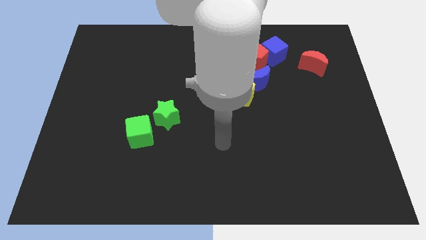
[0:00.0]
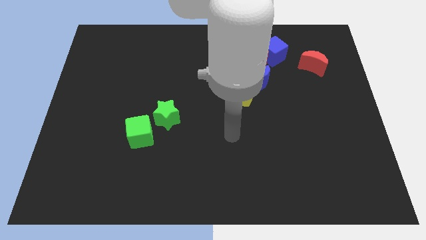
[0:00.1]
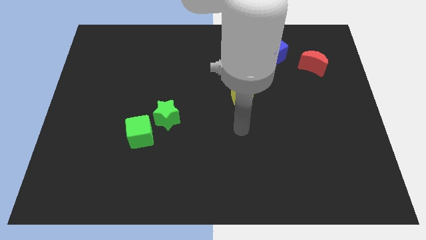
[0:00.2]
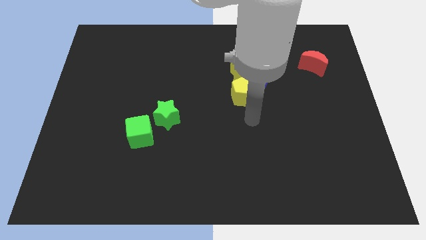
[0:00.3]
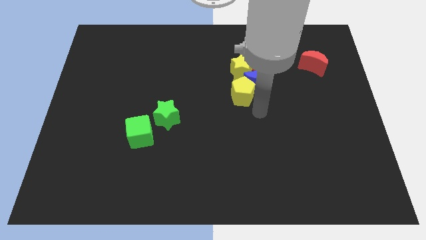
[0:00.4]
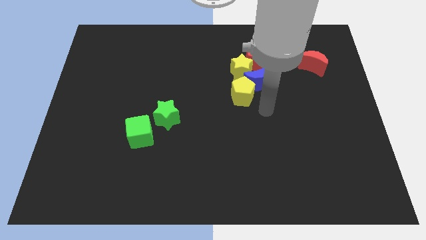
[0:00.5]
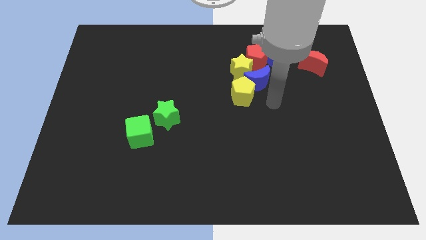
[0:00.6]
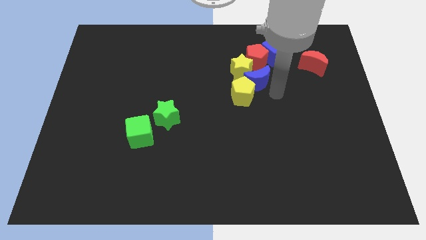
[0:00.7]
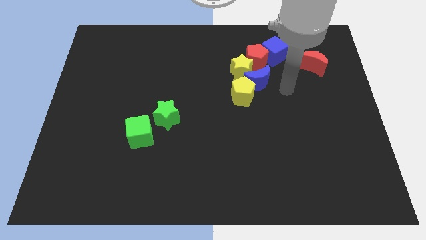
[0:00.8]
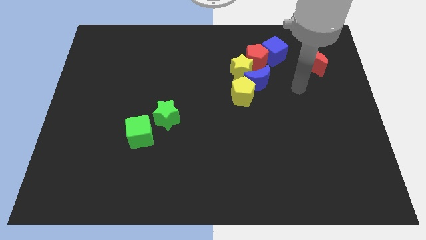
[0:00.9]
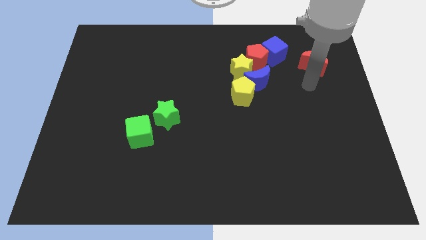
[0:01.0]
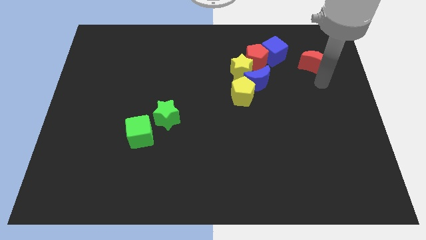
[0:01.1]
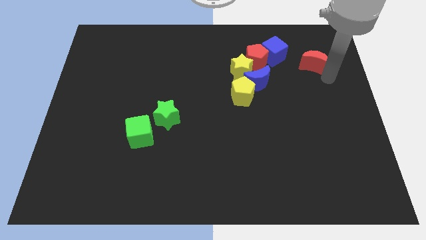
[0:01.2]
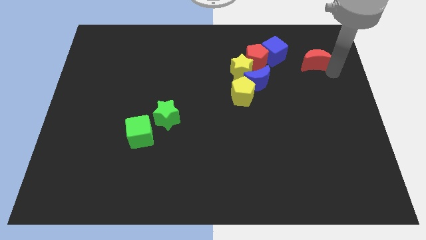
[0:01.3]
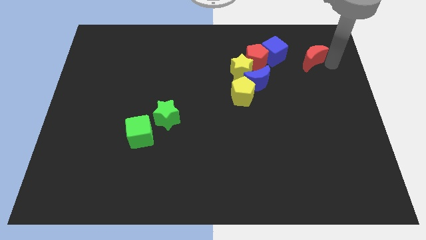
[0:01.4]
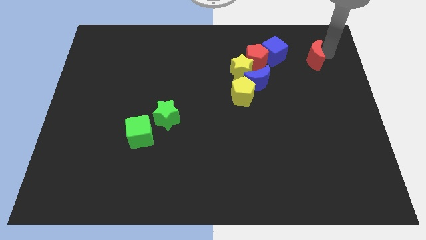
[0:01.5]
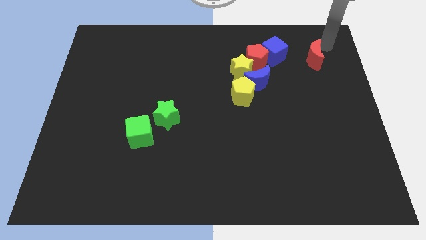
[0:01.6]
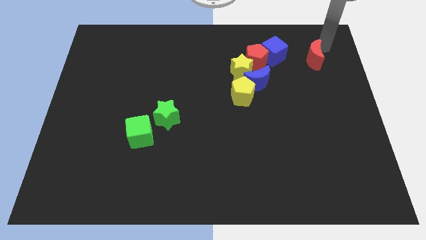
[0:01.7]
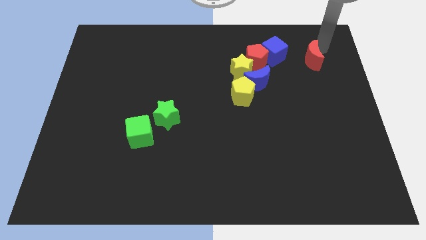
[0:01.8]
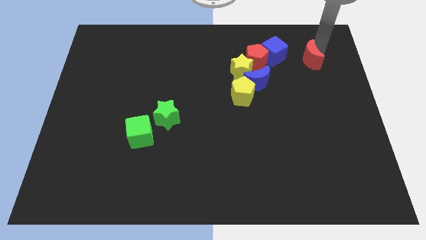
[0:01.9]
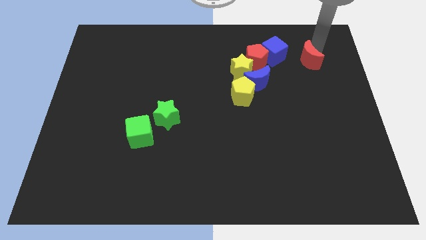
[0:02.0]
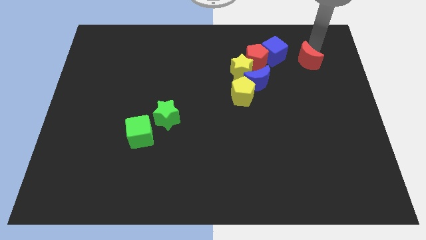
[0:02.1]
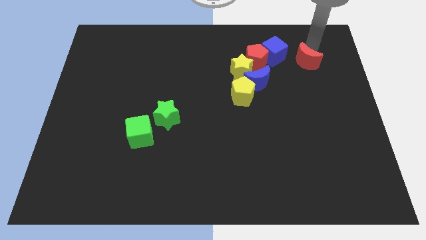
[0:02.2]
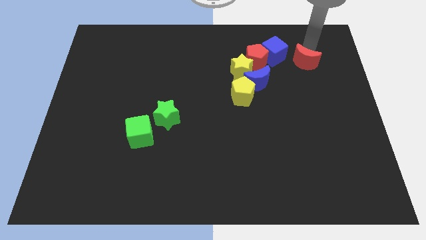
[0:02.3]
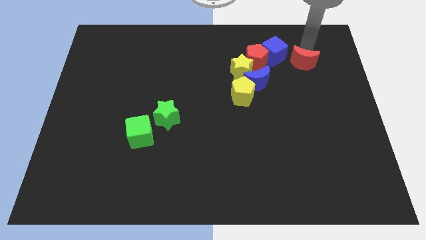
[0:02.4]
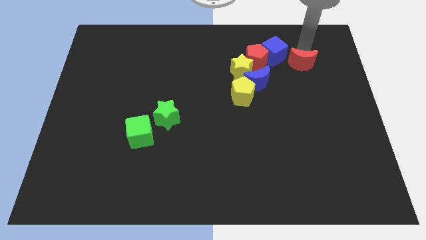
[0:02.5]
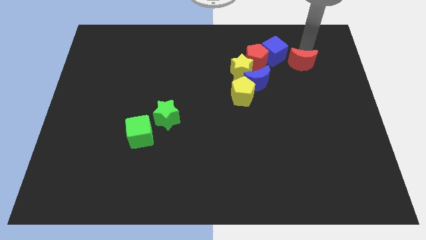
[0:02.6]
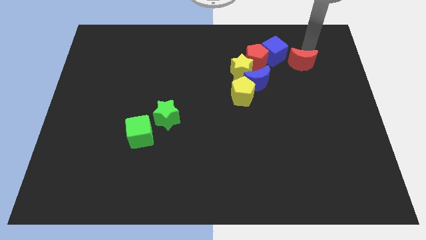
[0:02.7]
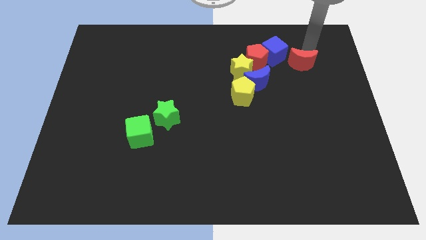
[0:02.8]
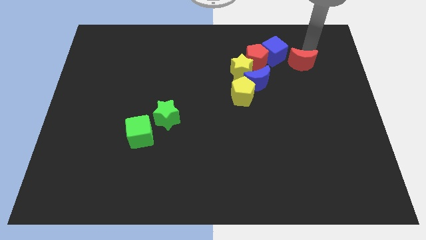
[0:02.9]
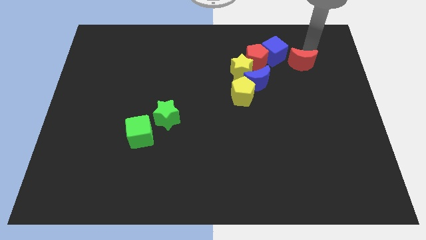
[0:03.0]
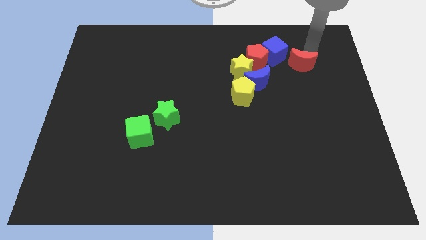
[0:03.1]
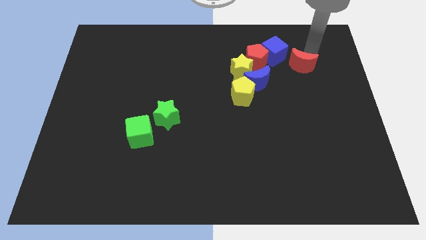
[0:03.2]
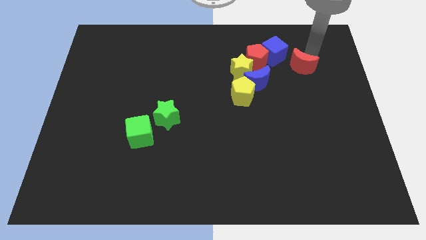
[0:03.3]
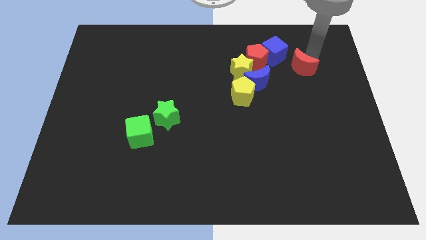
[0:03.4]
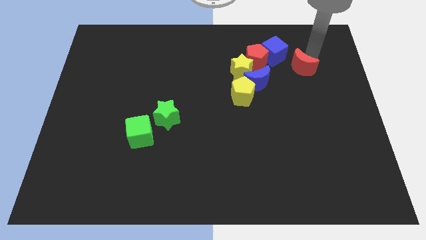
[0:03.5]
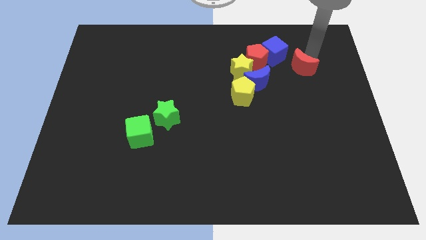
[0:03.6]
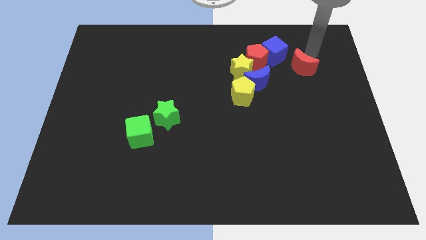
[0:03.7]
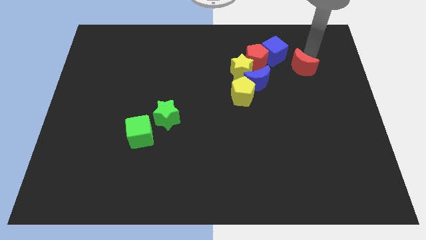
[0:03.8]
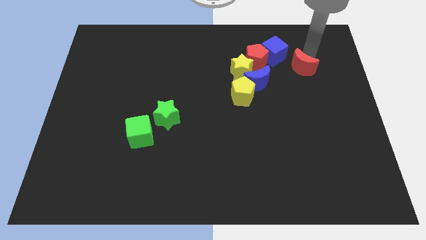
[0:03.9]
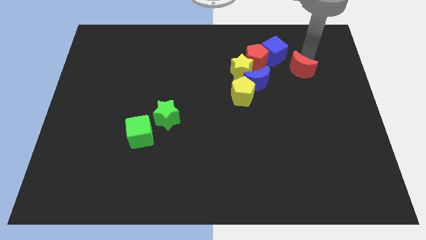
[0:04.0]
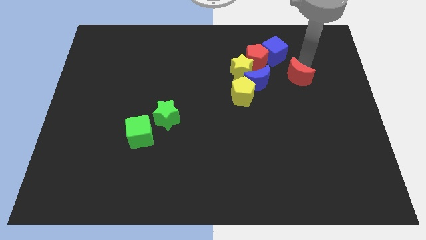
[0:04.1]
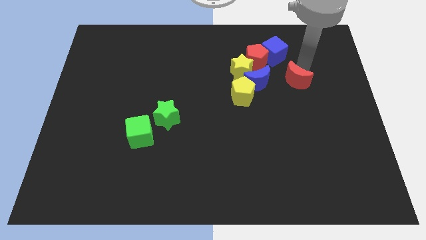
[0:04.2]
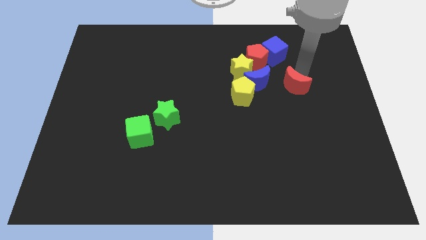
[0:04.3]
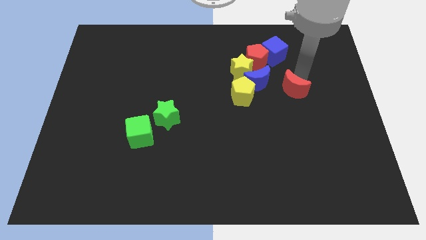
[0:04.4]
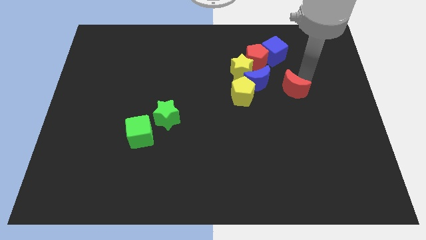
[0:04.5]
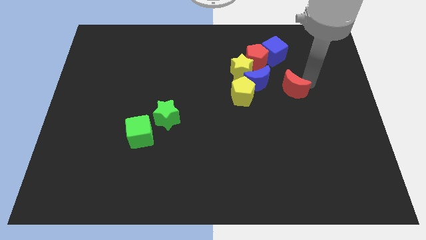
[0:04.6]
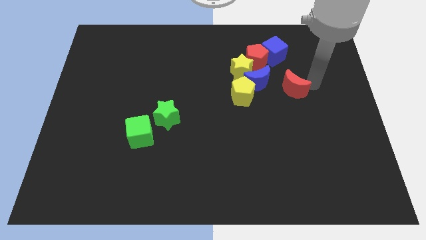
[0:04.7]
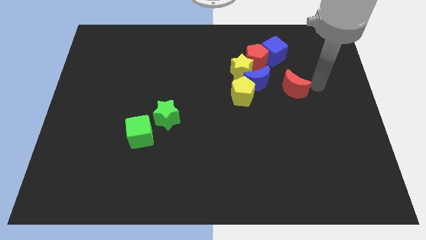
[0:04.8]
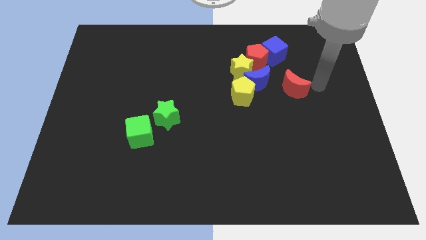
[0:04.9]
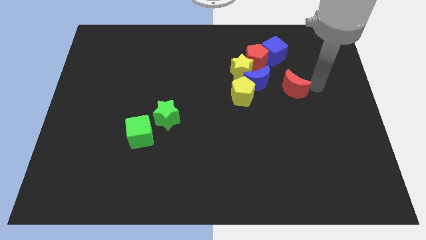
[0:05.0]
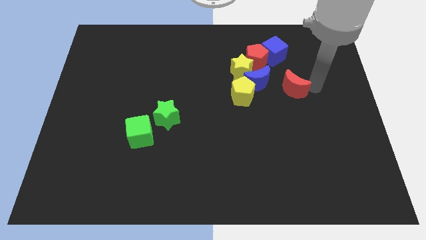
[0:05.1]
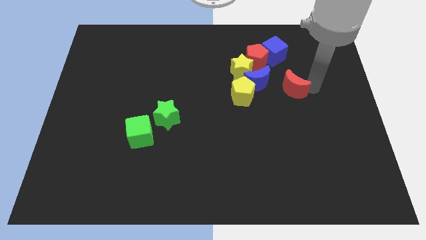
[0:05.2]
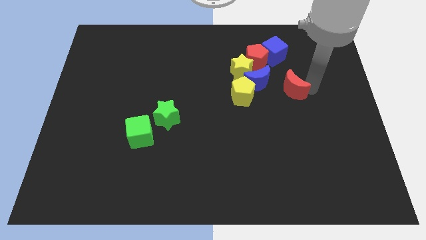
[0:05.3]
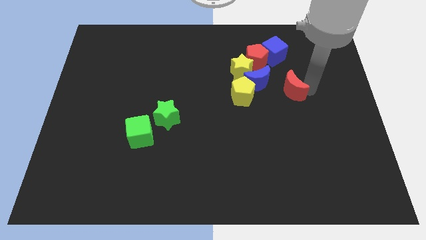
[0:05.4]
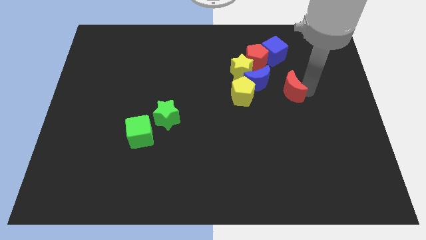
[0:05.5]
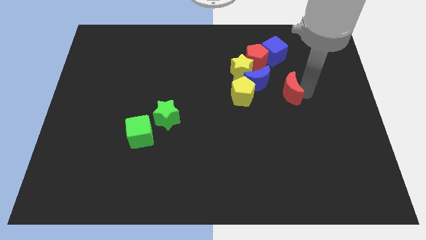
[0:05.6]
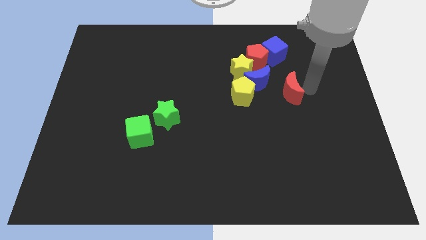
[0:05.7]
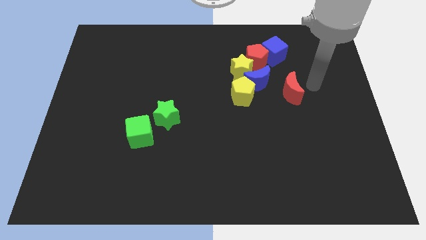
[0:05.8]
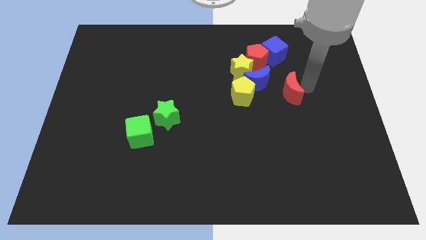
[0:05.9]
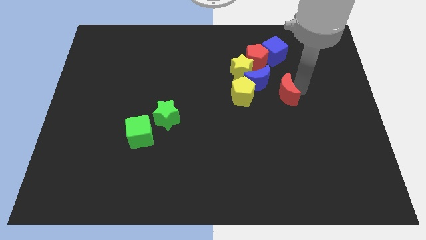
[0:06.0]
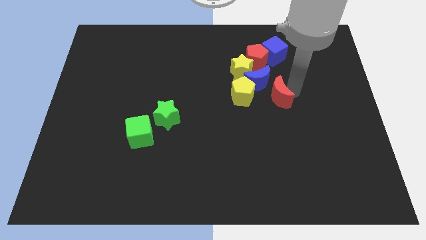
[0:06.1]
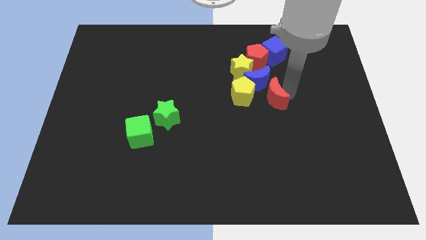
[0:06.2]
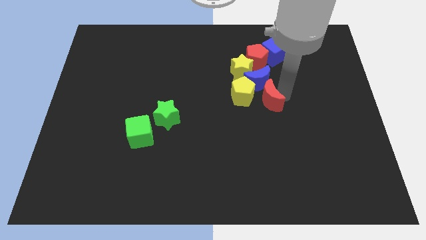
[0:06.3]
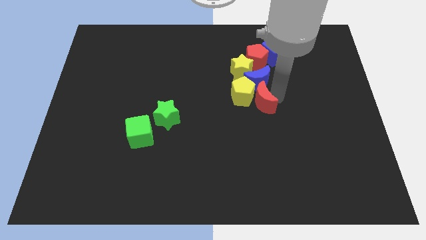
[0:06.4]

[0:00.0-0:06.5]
move the red moon diagonally down and to the left of the blue moon

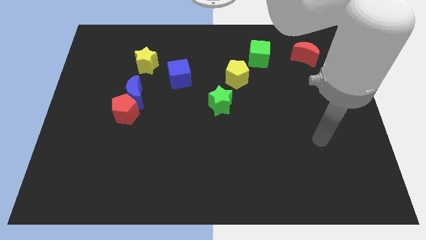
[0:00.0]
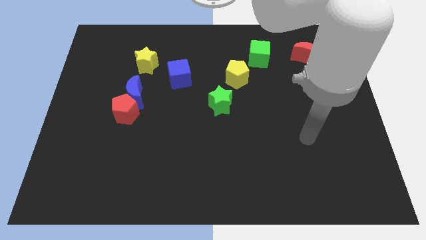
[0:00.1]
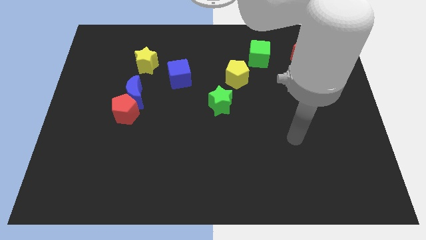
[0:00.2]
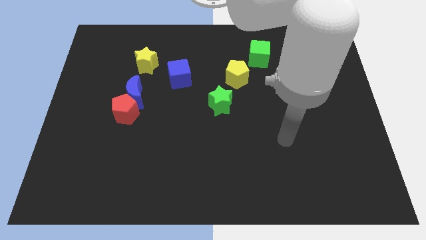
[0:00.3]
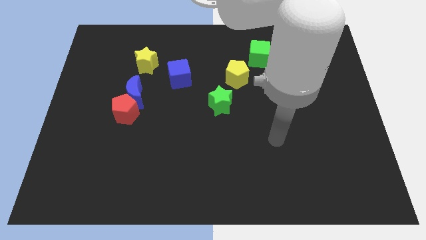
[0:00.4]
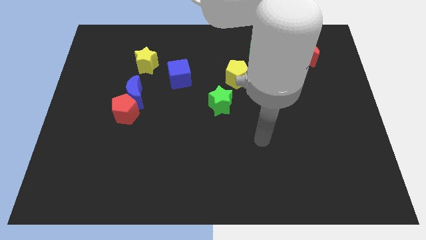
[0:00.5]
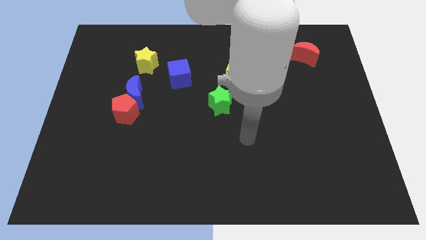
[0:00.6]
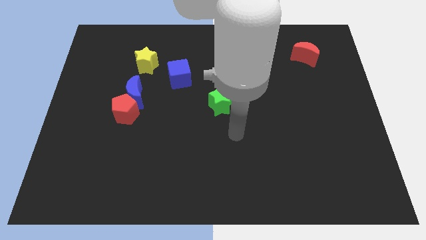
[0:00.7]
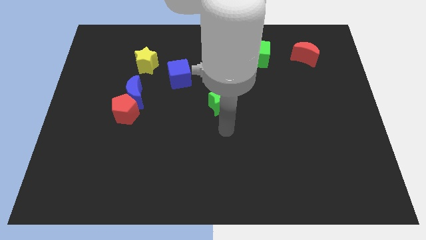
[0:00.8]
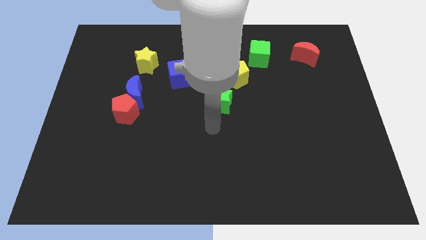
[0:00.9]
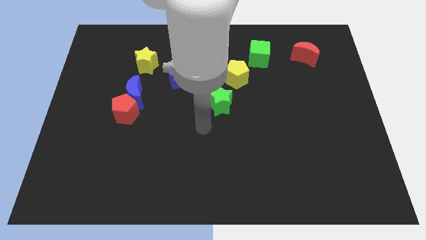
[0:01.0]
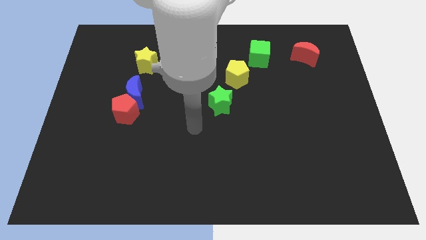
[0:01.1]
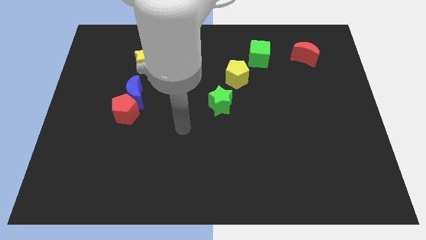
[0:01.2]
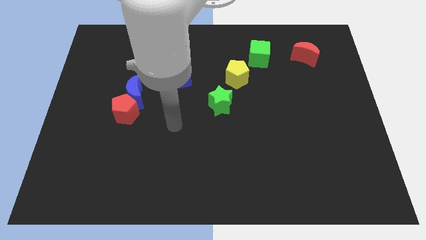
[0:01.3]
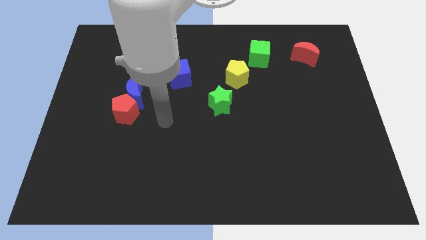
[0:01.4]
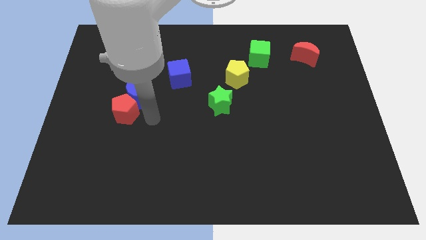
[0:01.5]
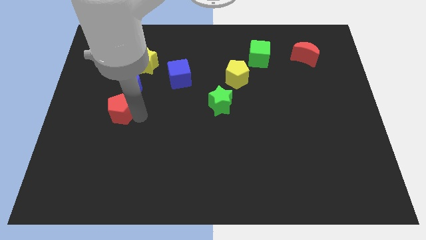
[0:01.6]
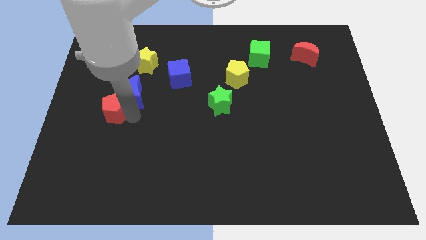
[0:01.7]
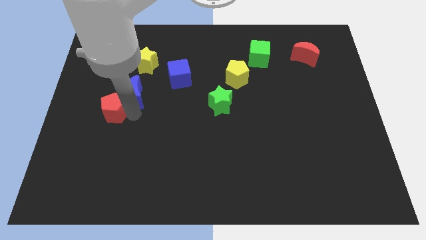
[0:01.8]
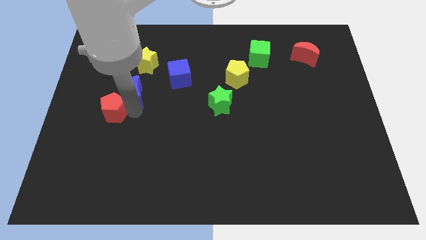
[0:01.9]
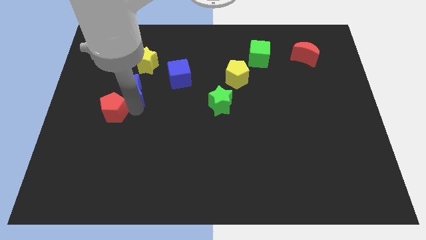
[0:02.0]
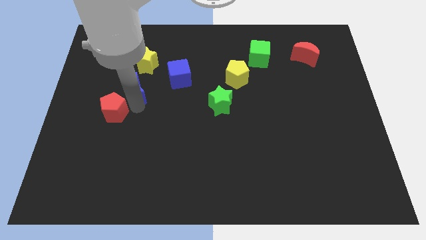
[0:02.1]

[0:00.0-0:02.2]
slide the blue moon just left of the blue cube
